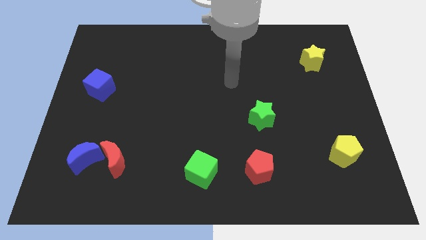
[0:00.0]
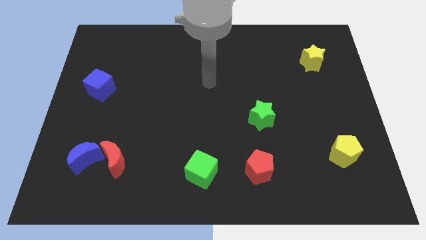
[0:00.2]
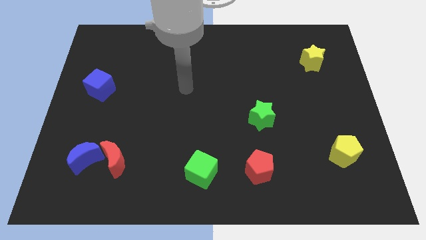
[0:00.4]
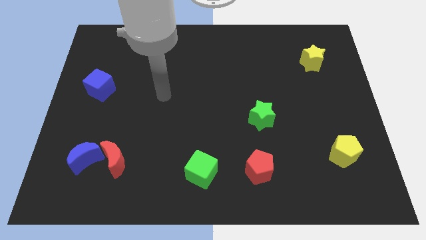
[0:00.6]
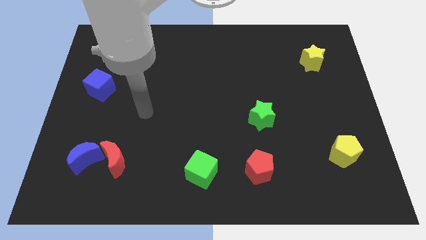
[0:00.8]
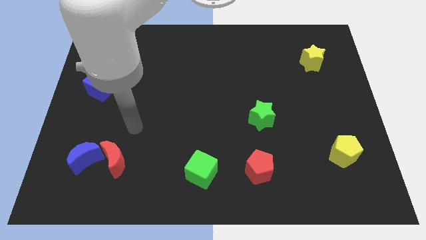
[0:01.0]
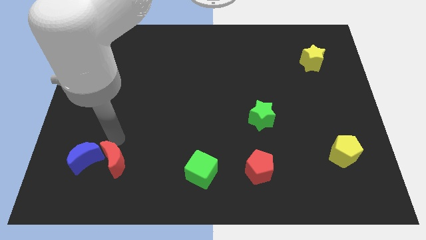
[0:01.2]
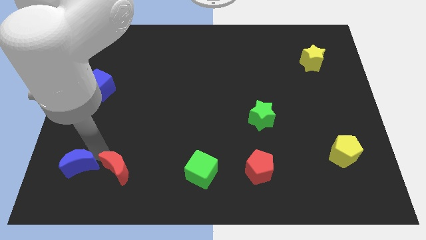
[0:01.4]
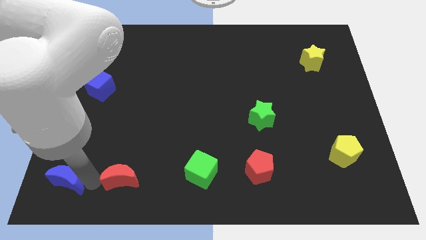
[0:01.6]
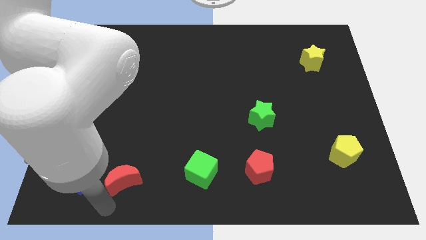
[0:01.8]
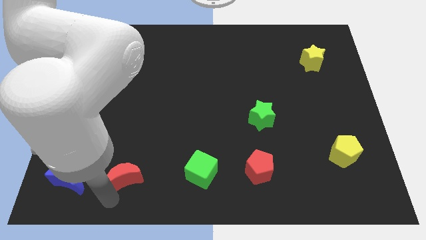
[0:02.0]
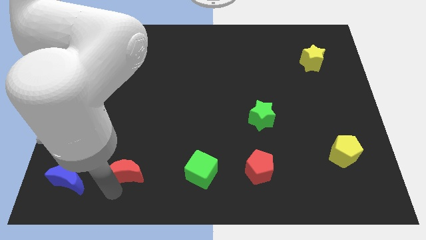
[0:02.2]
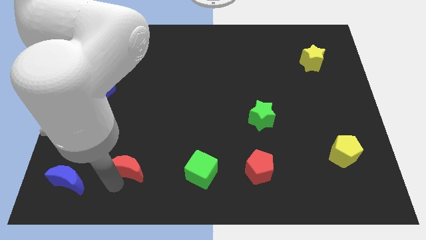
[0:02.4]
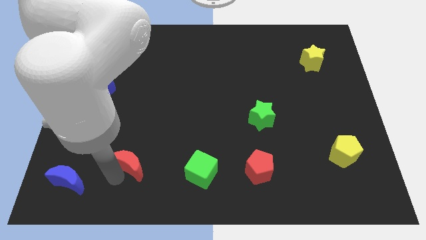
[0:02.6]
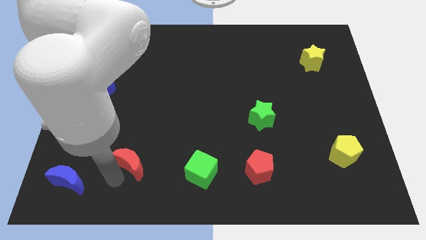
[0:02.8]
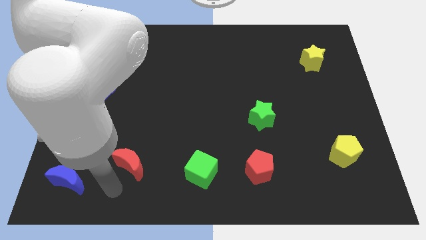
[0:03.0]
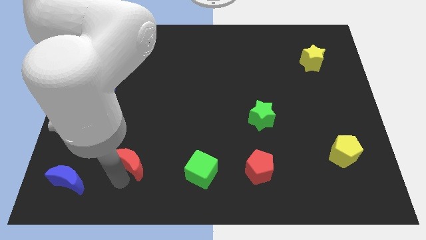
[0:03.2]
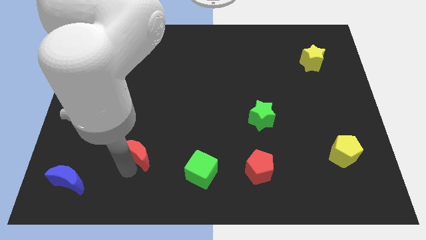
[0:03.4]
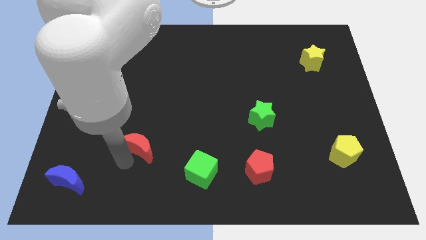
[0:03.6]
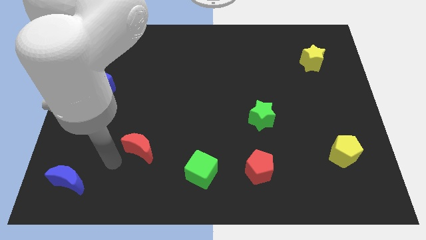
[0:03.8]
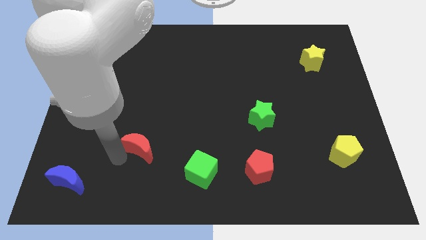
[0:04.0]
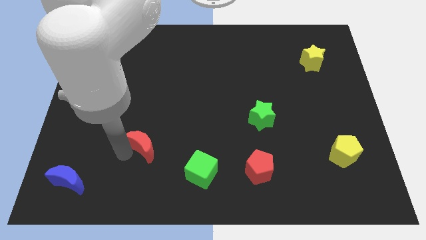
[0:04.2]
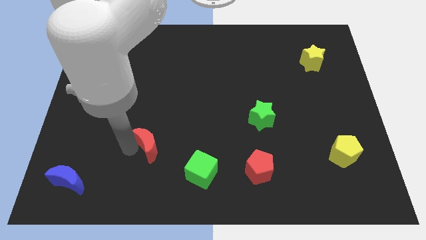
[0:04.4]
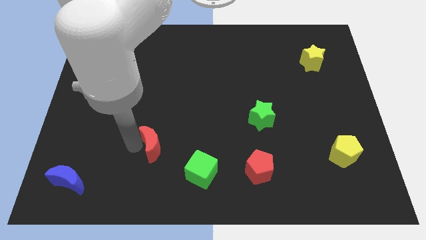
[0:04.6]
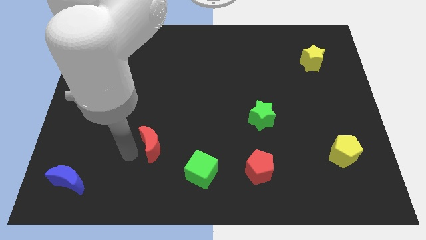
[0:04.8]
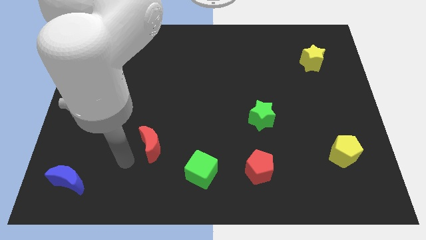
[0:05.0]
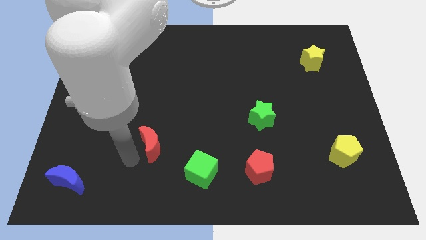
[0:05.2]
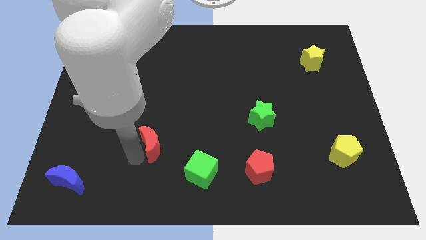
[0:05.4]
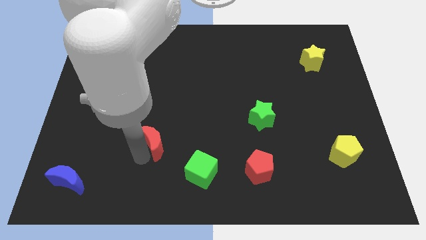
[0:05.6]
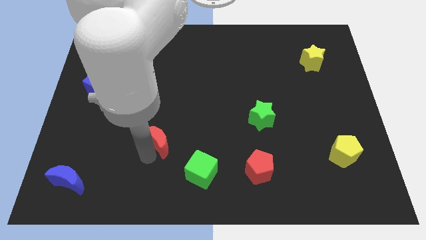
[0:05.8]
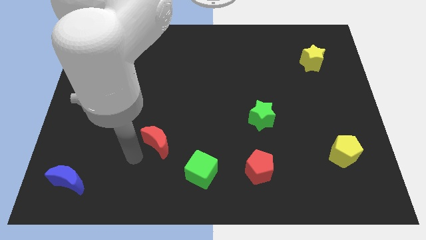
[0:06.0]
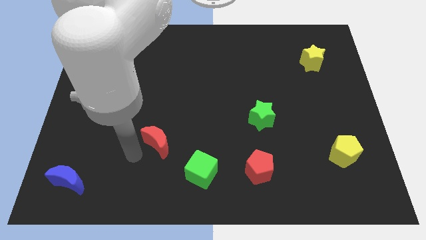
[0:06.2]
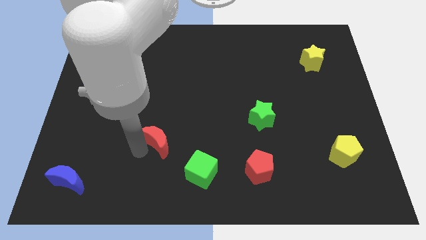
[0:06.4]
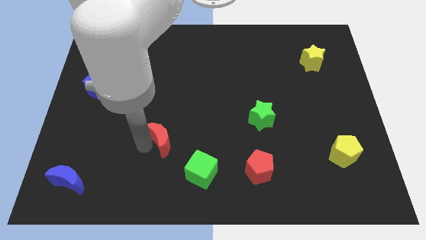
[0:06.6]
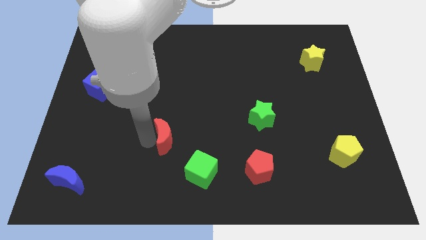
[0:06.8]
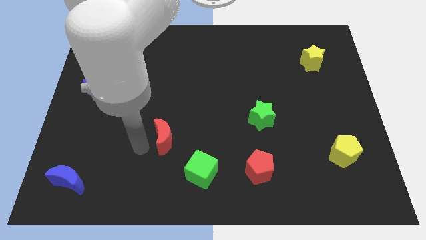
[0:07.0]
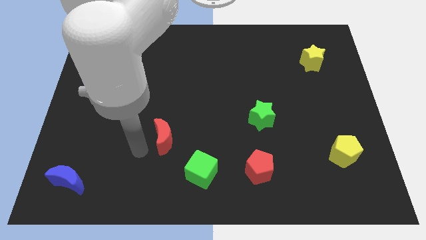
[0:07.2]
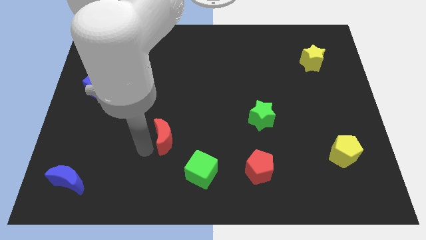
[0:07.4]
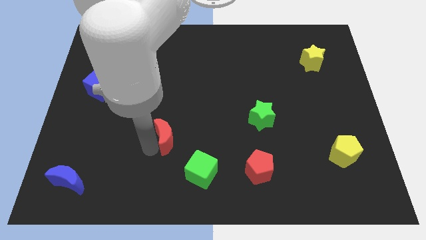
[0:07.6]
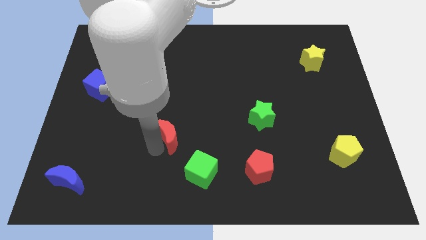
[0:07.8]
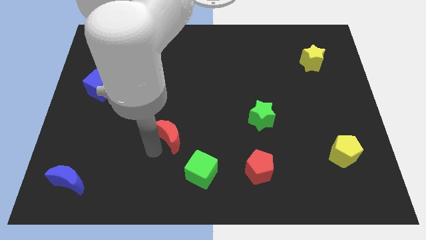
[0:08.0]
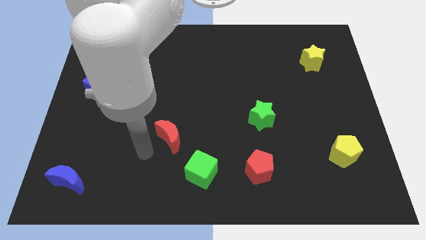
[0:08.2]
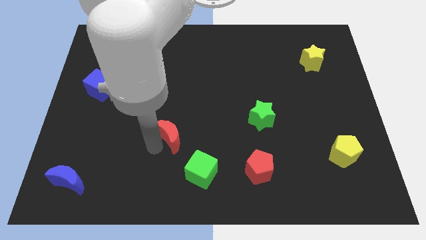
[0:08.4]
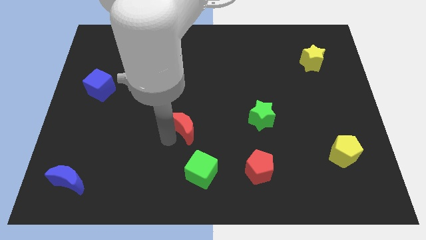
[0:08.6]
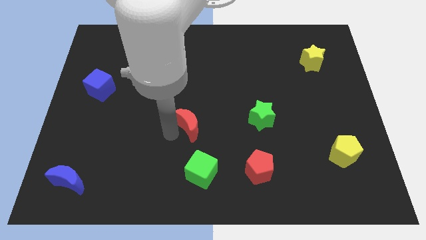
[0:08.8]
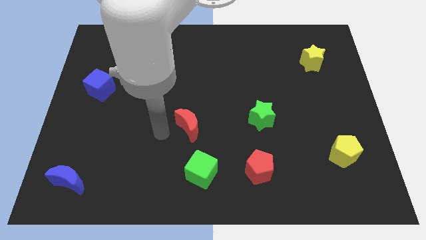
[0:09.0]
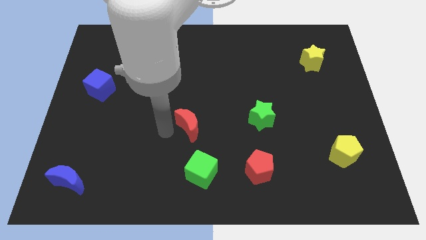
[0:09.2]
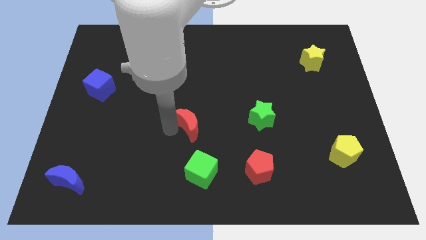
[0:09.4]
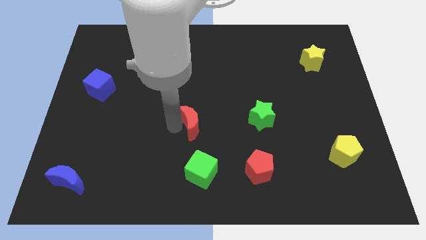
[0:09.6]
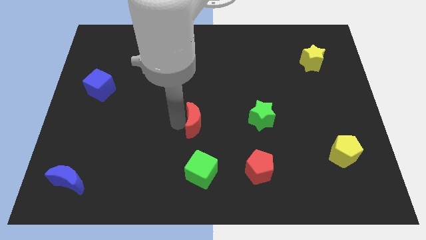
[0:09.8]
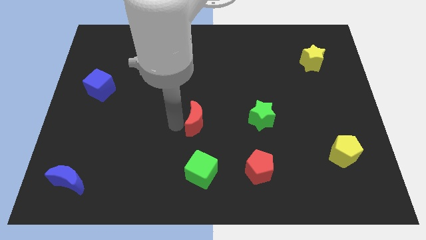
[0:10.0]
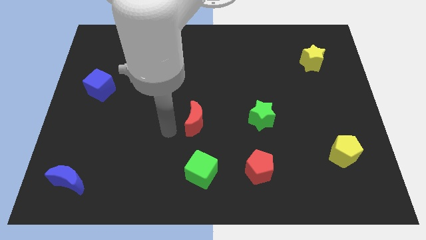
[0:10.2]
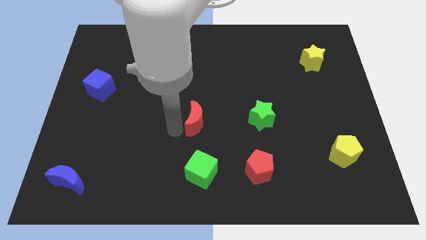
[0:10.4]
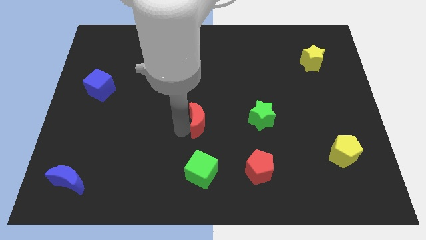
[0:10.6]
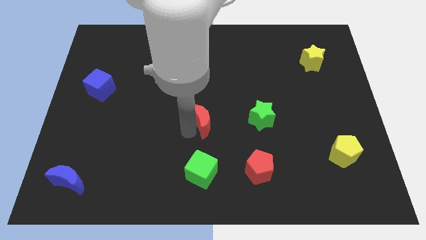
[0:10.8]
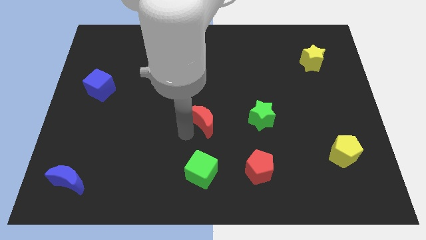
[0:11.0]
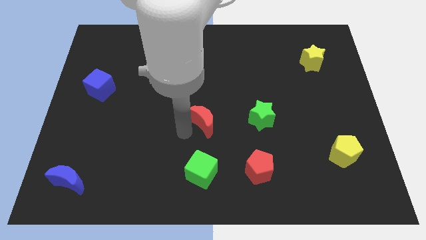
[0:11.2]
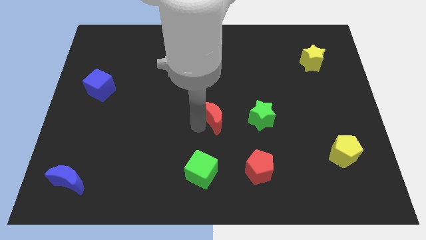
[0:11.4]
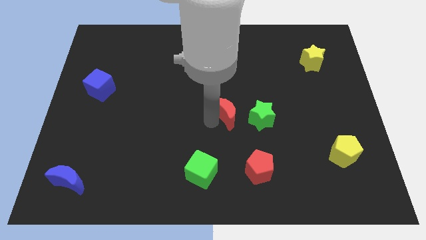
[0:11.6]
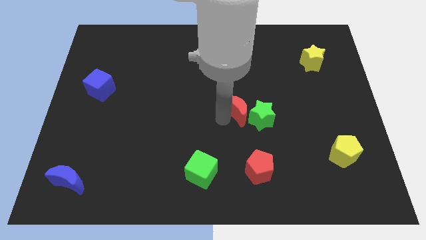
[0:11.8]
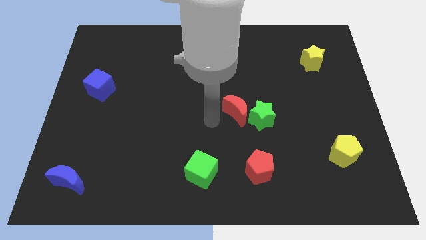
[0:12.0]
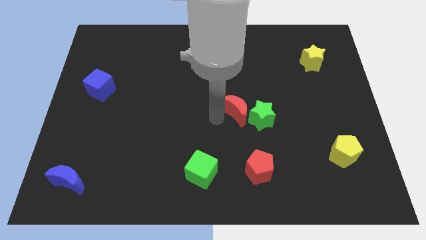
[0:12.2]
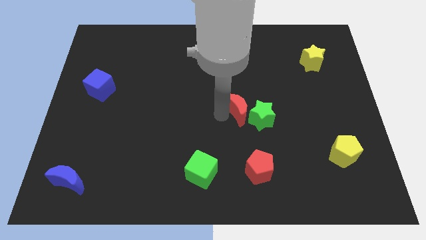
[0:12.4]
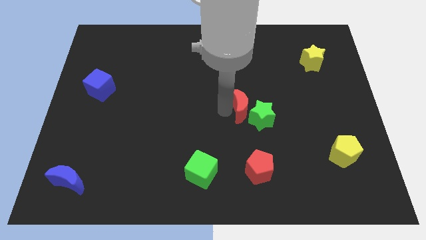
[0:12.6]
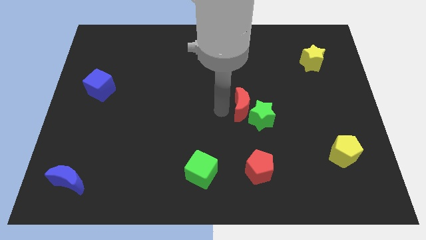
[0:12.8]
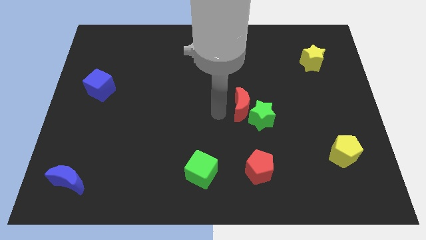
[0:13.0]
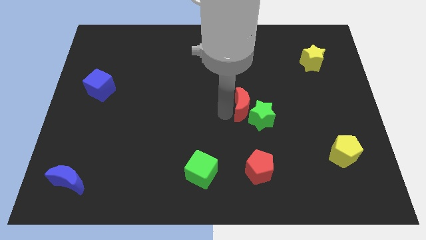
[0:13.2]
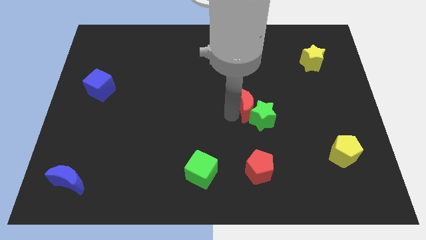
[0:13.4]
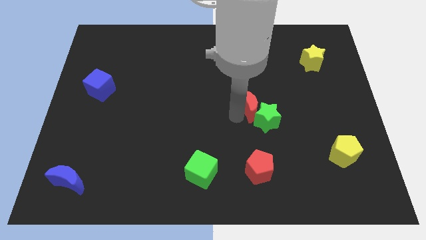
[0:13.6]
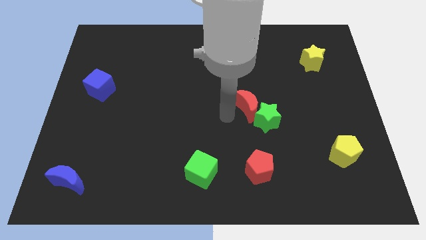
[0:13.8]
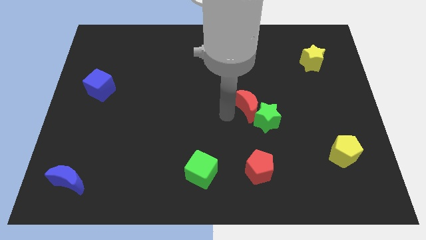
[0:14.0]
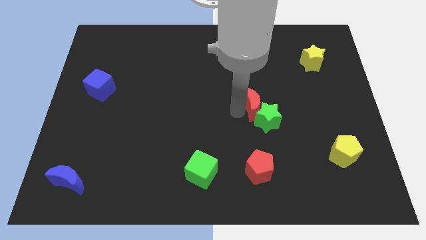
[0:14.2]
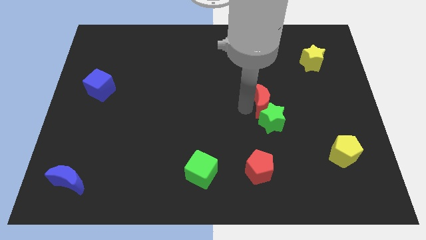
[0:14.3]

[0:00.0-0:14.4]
move the red moon diagonally up and to the right of the green star

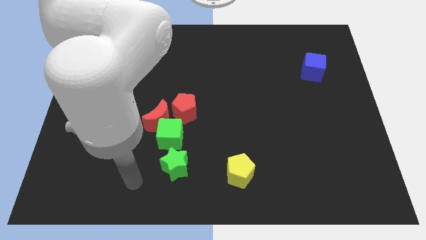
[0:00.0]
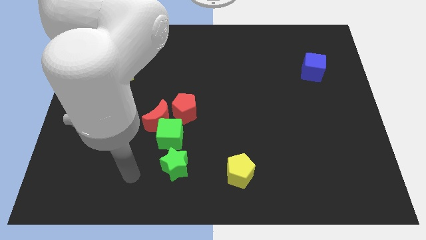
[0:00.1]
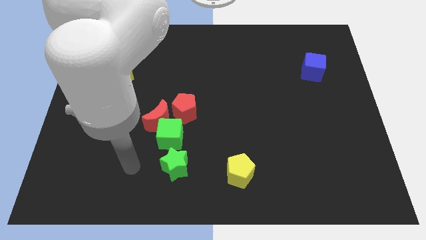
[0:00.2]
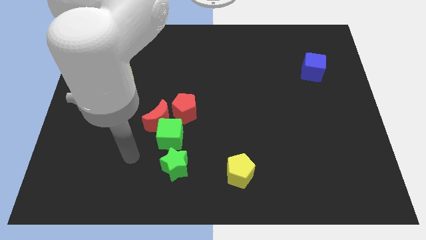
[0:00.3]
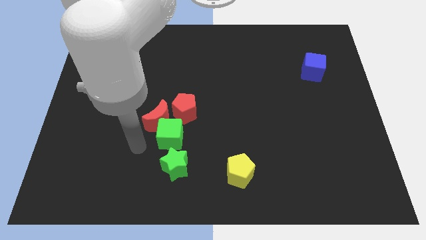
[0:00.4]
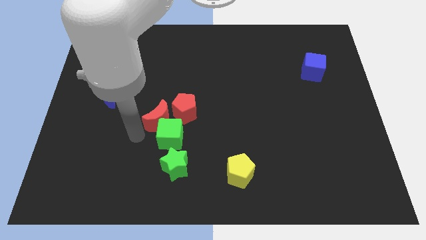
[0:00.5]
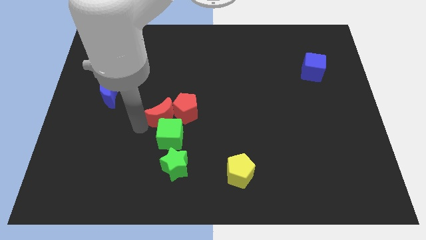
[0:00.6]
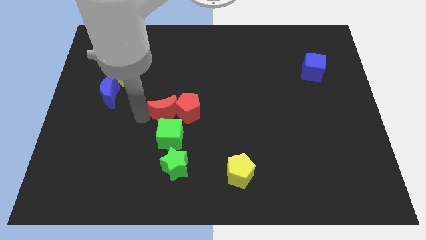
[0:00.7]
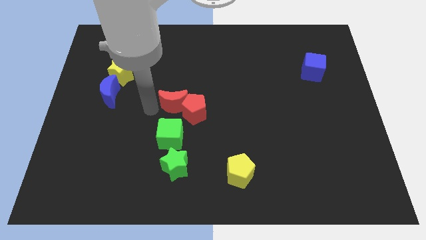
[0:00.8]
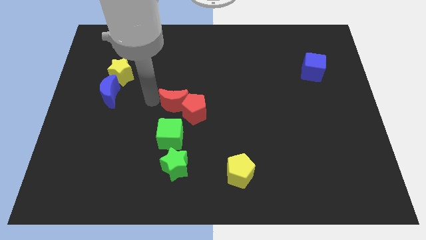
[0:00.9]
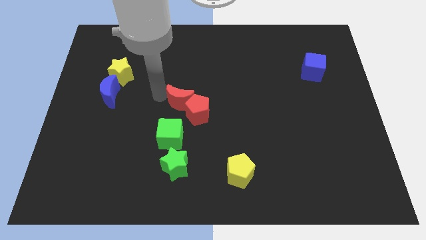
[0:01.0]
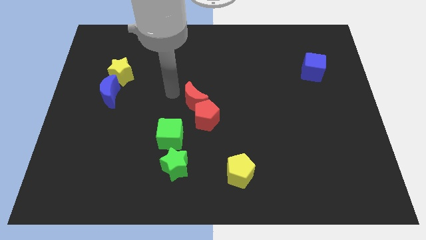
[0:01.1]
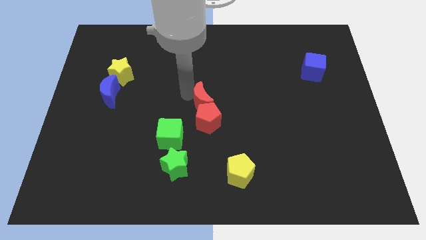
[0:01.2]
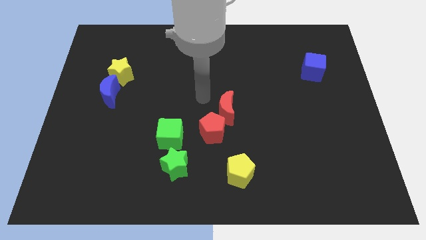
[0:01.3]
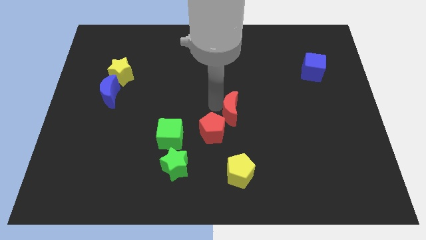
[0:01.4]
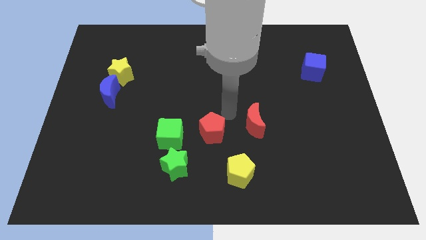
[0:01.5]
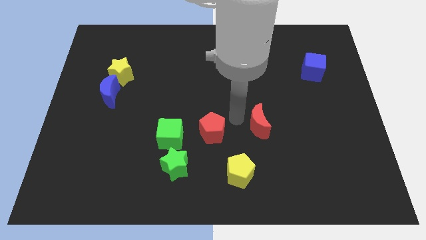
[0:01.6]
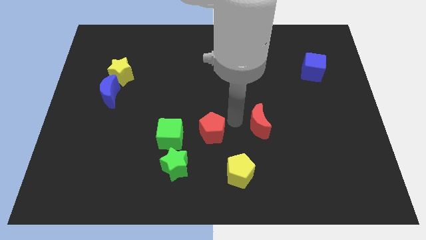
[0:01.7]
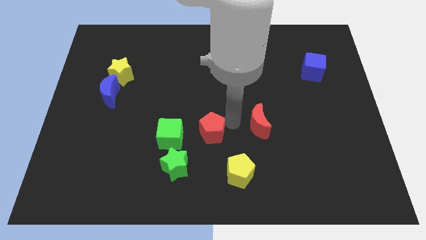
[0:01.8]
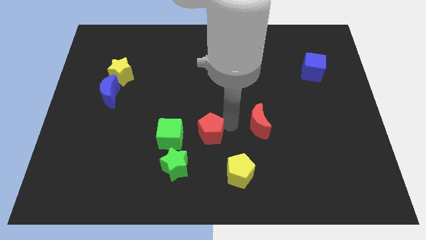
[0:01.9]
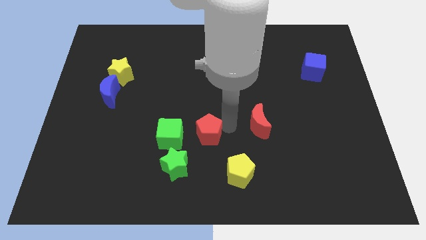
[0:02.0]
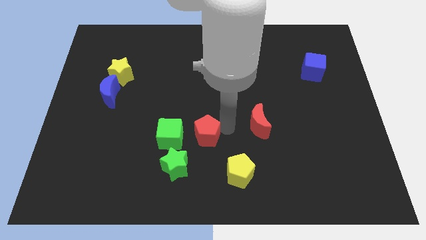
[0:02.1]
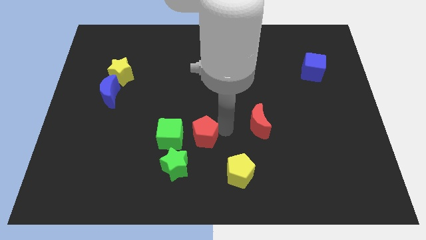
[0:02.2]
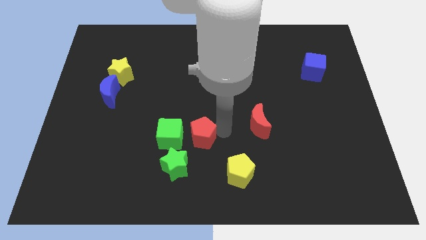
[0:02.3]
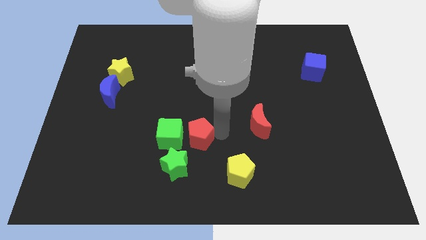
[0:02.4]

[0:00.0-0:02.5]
put the red pentagon to the bottom right of the green cube
